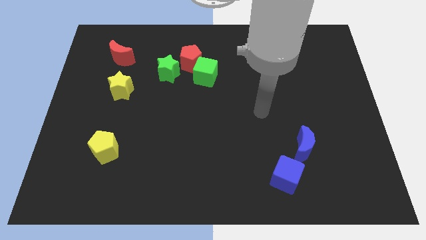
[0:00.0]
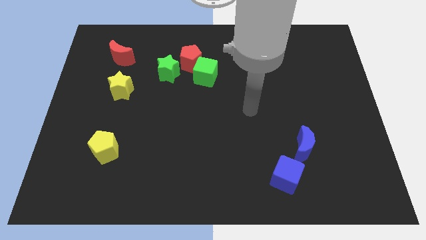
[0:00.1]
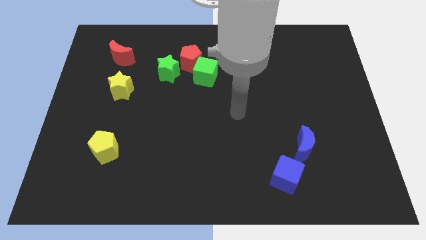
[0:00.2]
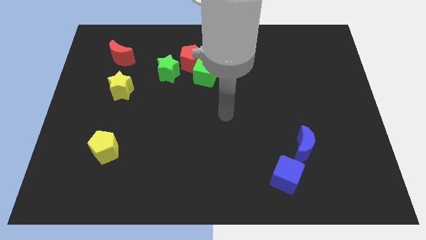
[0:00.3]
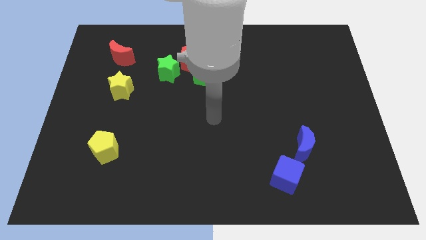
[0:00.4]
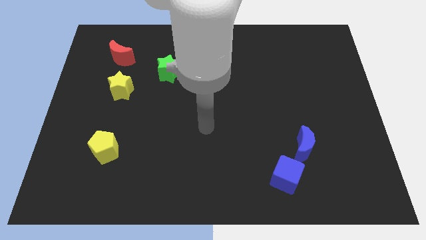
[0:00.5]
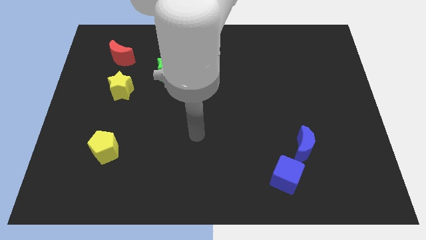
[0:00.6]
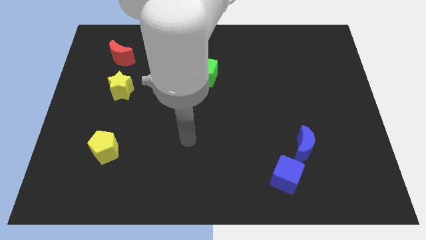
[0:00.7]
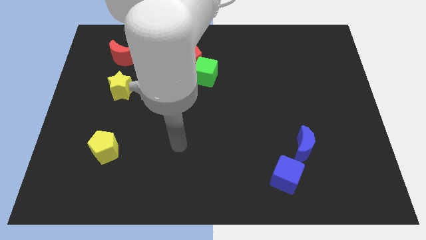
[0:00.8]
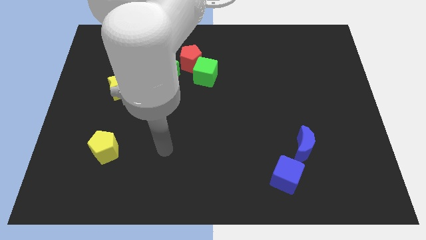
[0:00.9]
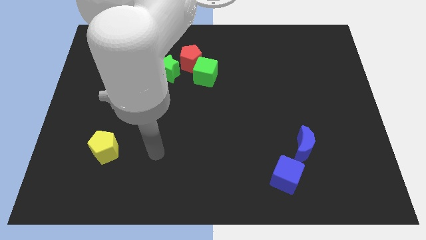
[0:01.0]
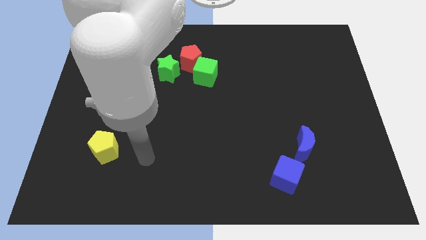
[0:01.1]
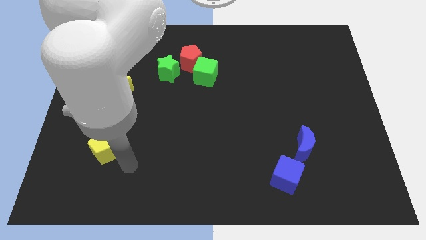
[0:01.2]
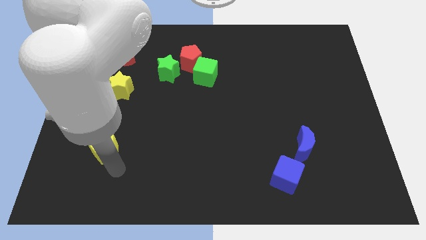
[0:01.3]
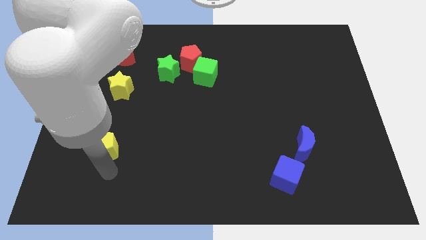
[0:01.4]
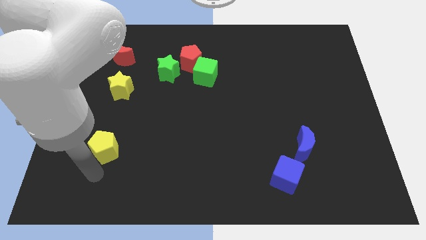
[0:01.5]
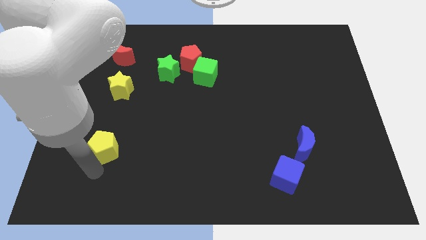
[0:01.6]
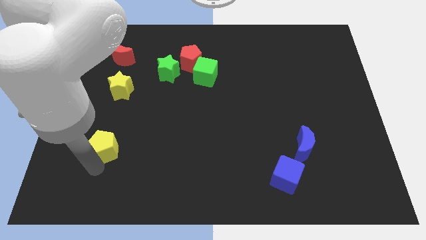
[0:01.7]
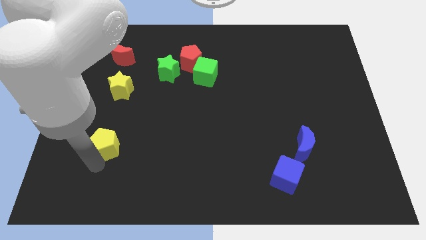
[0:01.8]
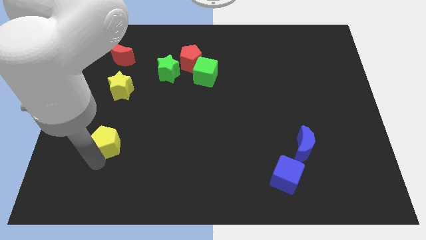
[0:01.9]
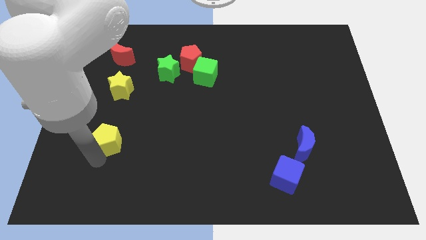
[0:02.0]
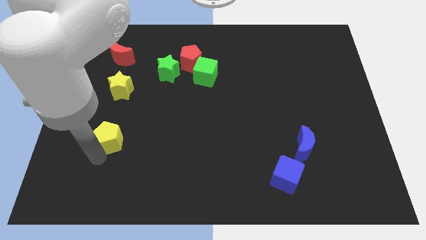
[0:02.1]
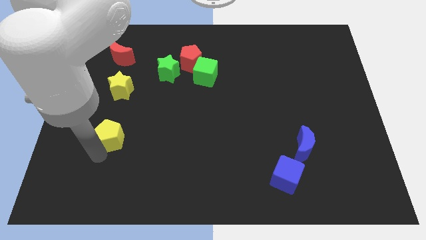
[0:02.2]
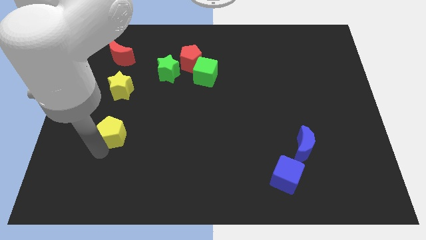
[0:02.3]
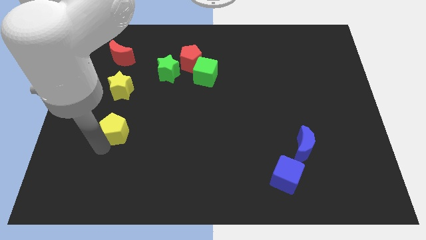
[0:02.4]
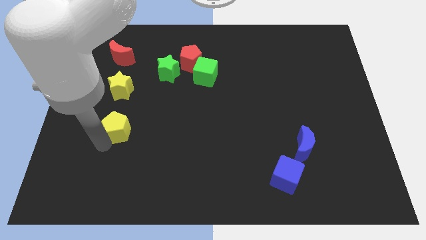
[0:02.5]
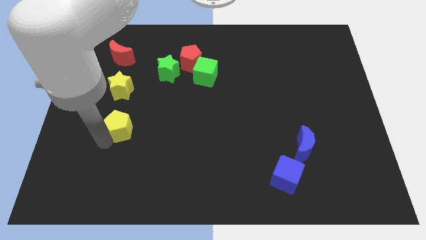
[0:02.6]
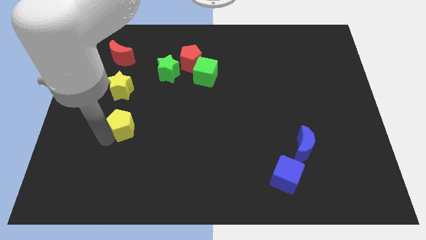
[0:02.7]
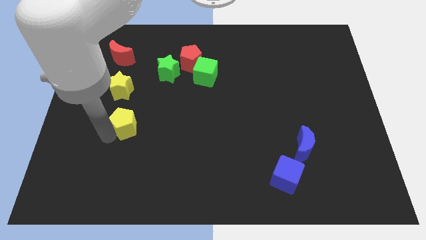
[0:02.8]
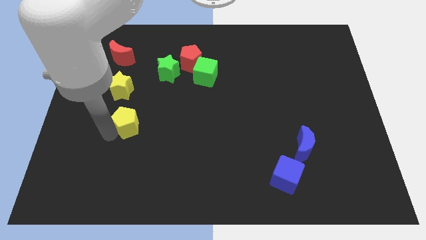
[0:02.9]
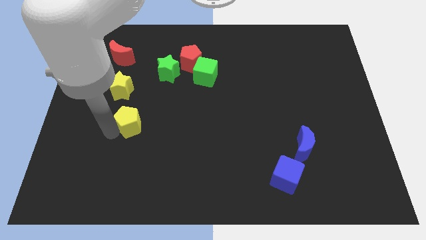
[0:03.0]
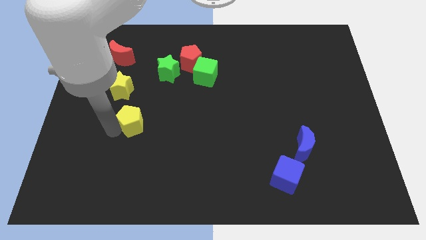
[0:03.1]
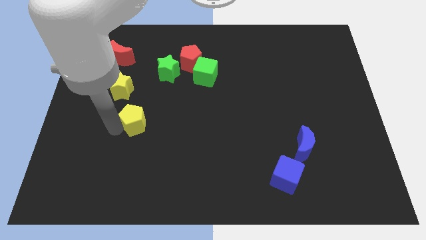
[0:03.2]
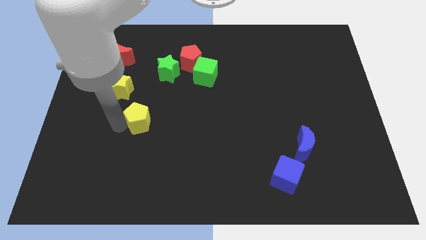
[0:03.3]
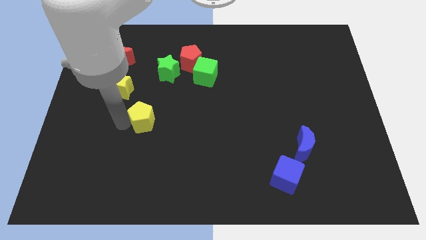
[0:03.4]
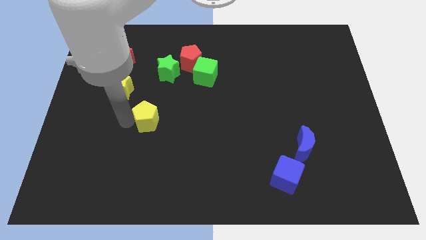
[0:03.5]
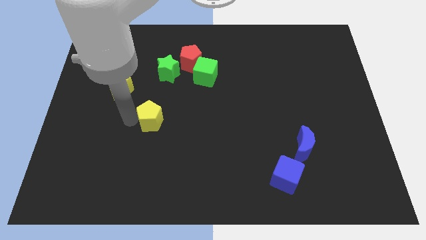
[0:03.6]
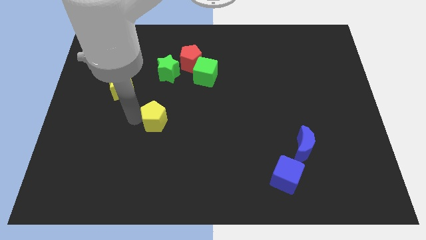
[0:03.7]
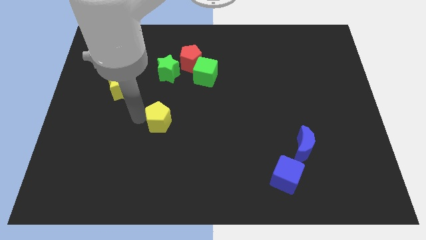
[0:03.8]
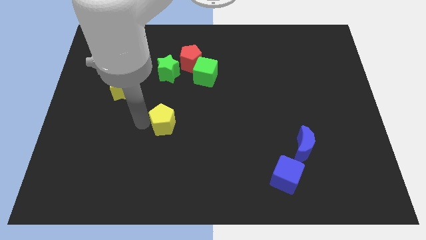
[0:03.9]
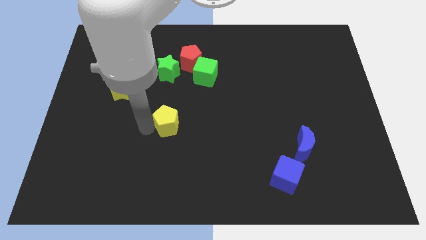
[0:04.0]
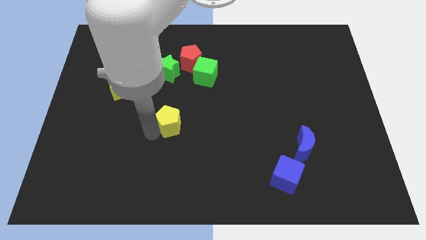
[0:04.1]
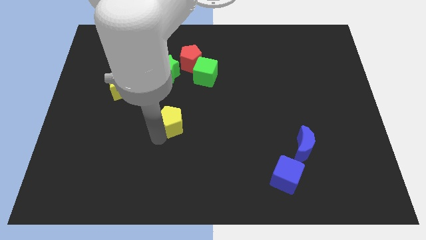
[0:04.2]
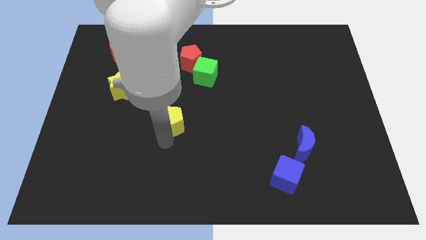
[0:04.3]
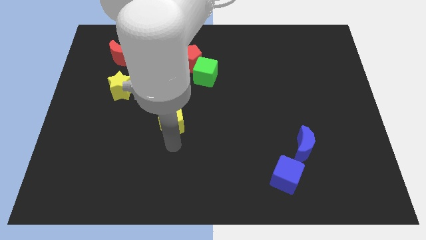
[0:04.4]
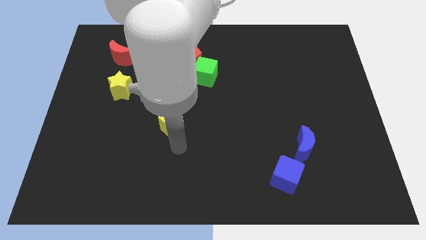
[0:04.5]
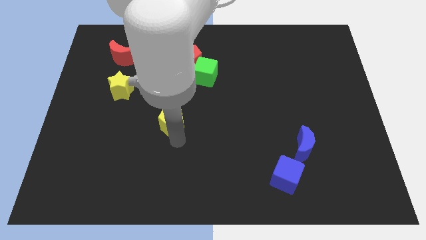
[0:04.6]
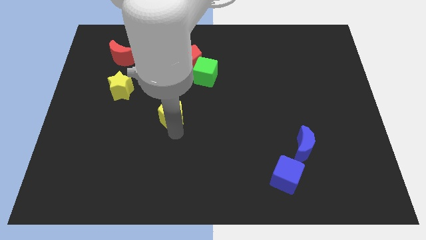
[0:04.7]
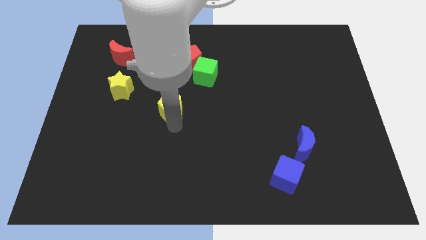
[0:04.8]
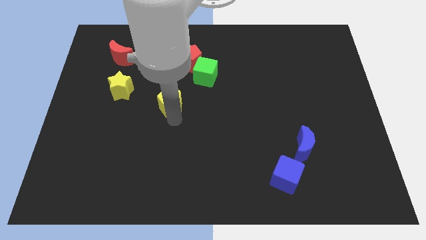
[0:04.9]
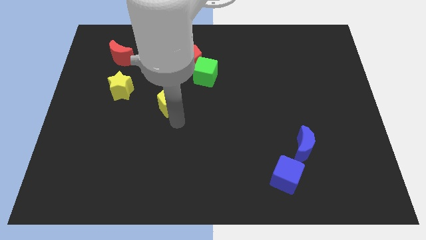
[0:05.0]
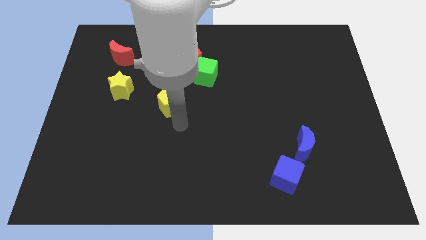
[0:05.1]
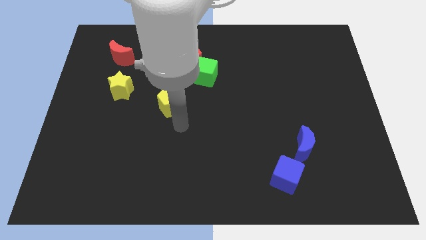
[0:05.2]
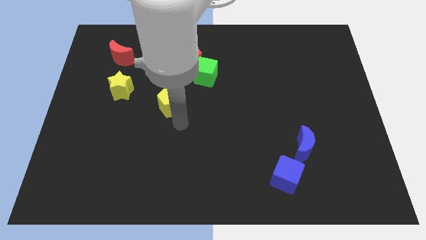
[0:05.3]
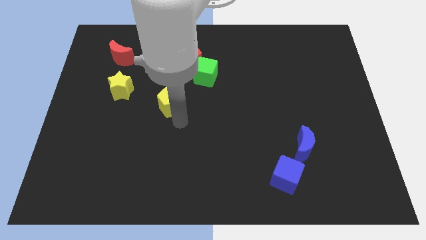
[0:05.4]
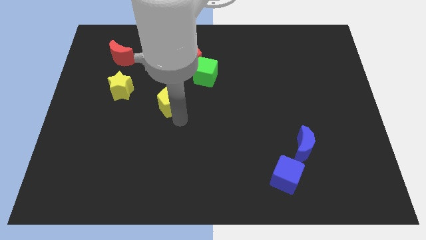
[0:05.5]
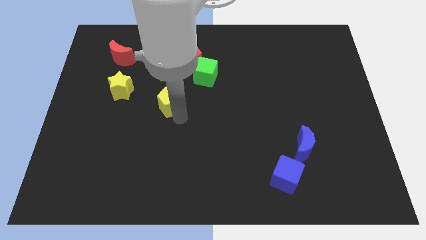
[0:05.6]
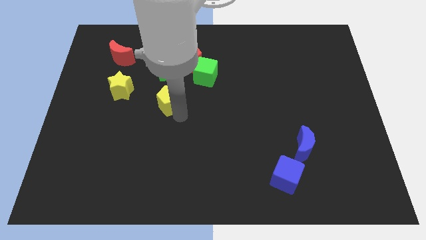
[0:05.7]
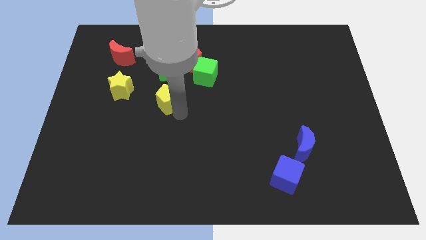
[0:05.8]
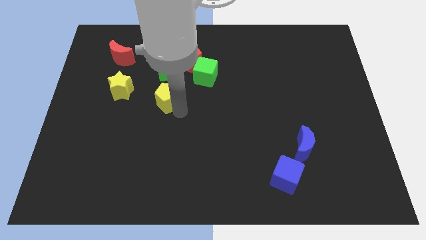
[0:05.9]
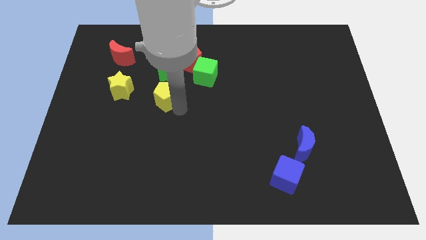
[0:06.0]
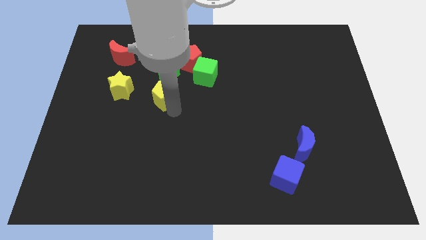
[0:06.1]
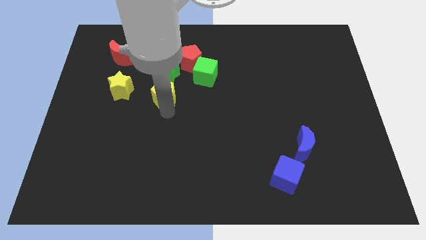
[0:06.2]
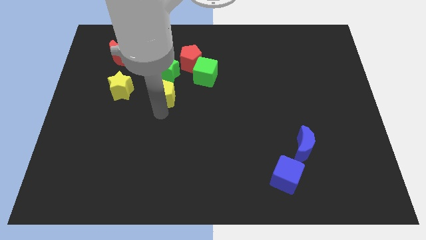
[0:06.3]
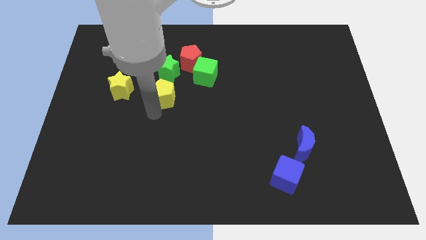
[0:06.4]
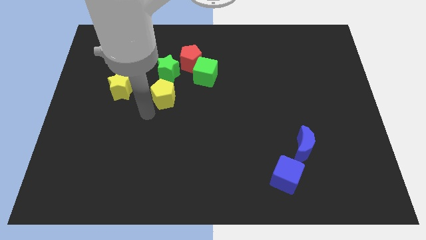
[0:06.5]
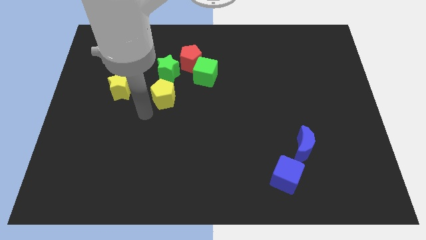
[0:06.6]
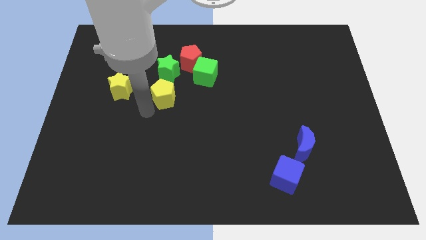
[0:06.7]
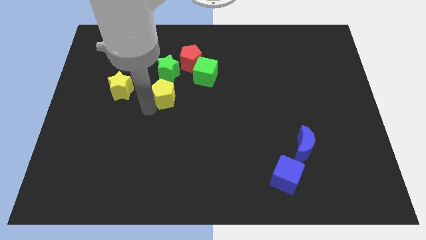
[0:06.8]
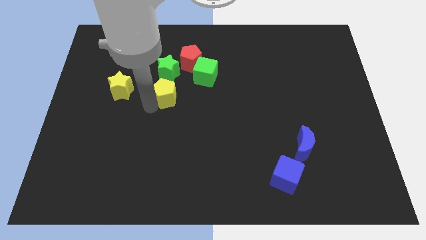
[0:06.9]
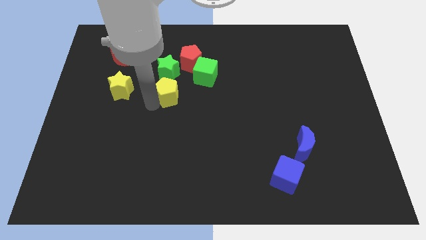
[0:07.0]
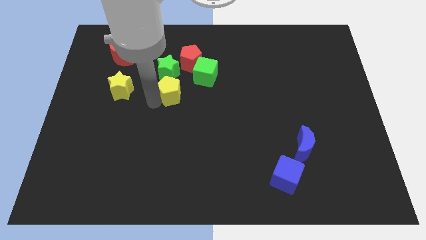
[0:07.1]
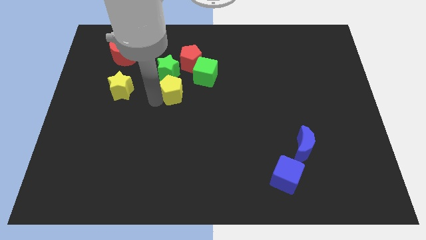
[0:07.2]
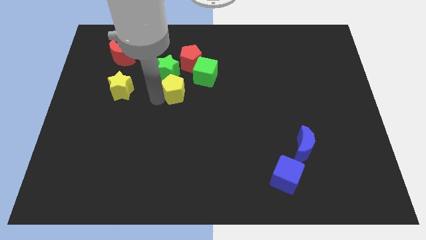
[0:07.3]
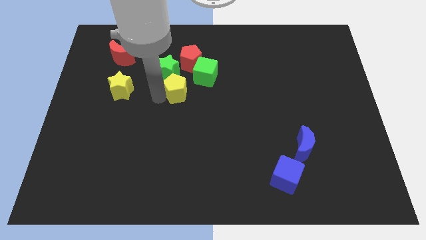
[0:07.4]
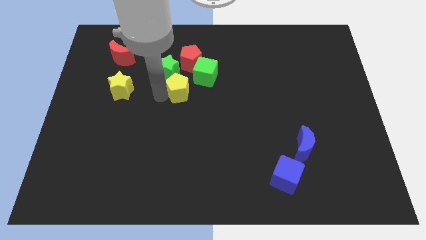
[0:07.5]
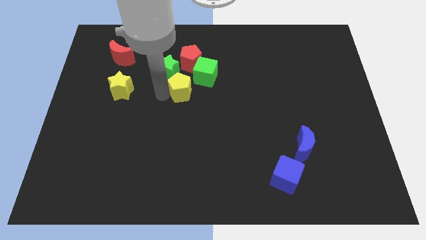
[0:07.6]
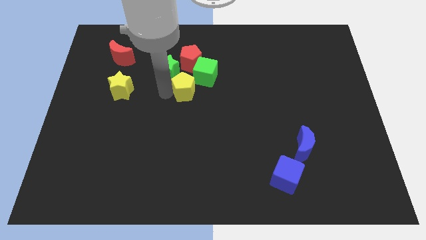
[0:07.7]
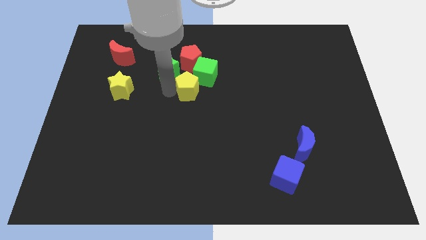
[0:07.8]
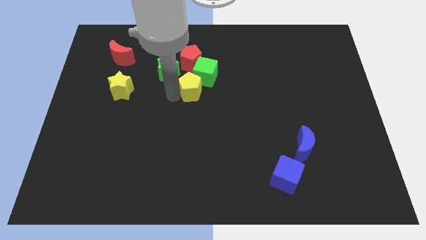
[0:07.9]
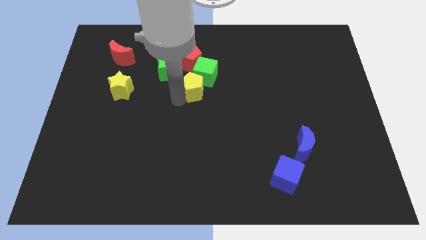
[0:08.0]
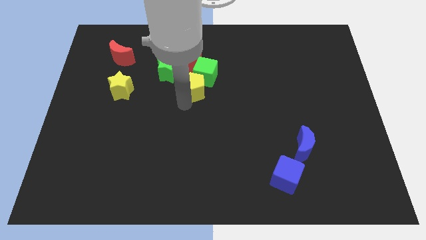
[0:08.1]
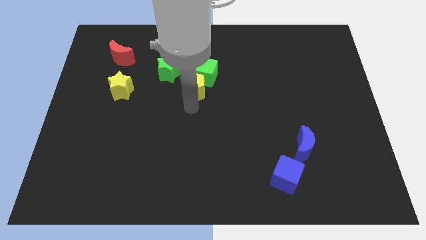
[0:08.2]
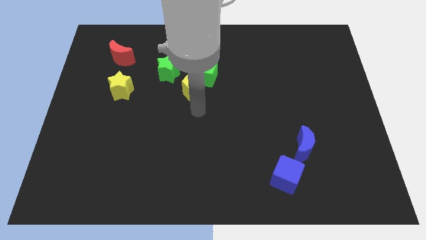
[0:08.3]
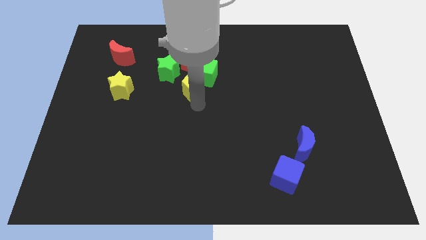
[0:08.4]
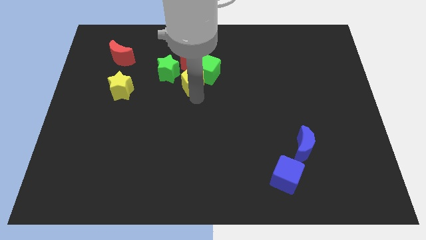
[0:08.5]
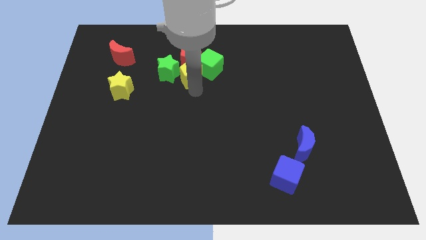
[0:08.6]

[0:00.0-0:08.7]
put the yellow pentagon close to the red pentagon
